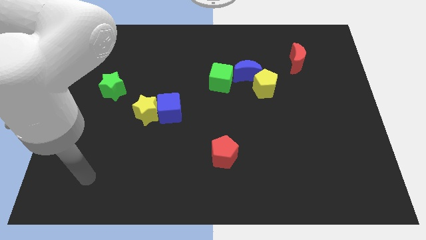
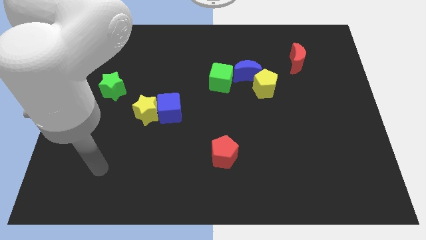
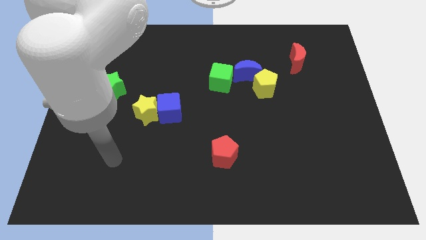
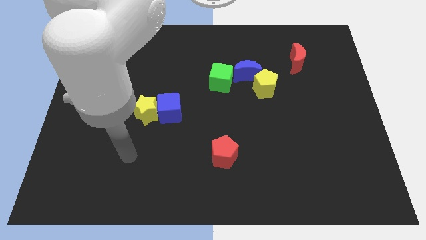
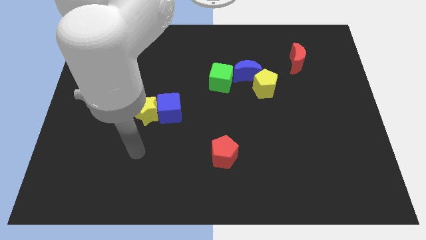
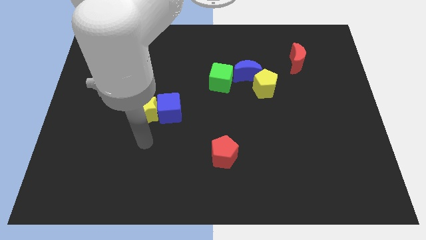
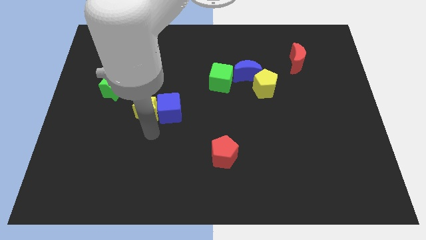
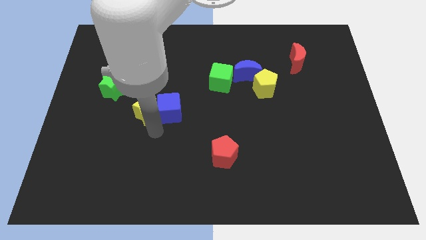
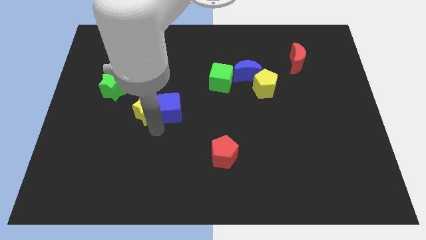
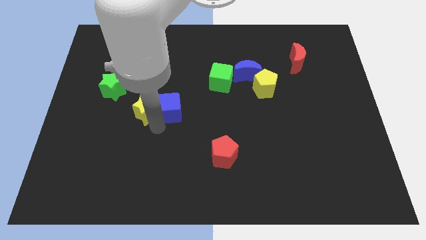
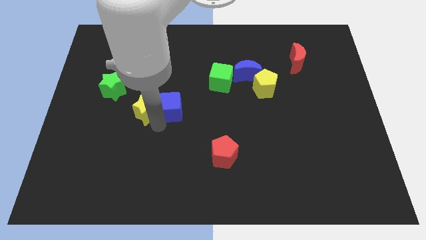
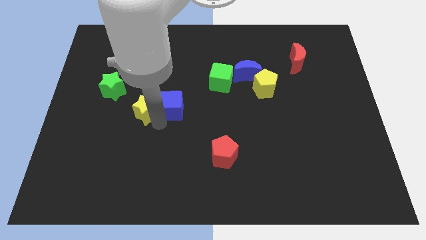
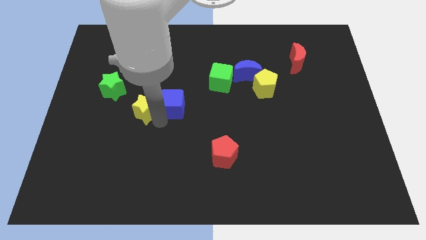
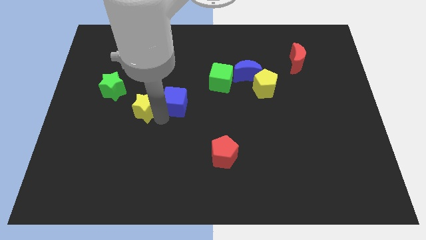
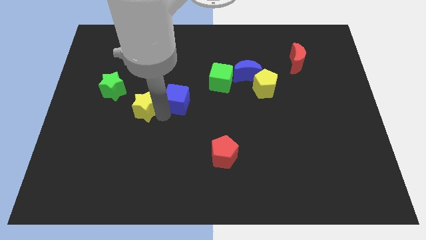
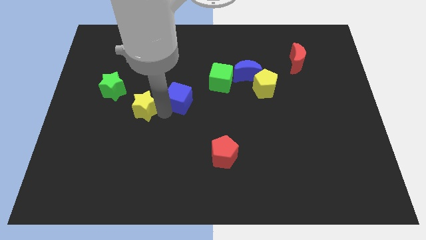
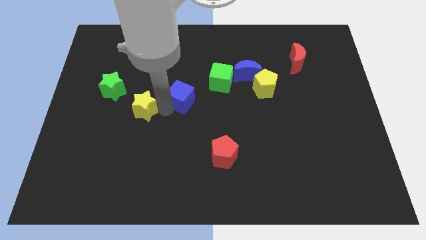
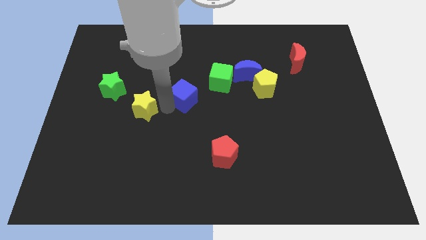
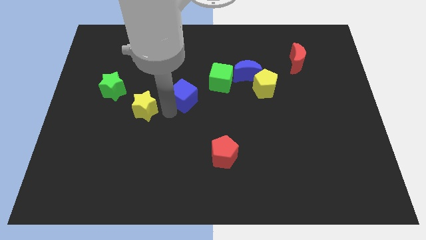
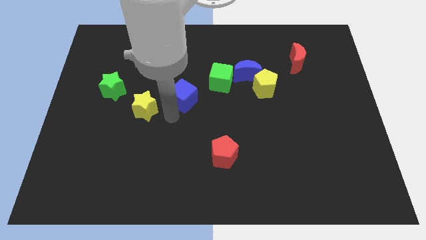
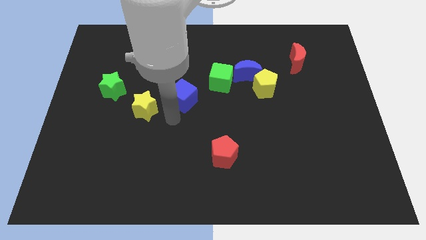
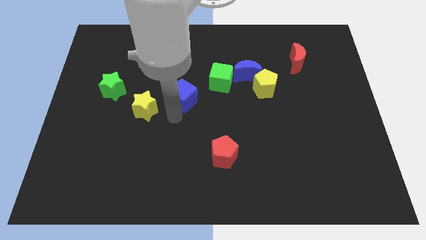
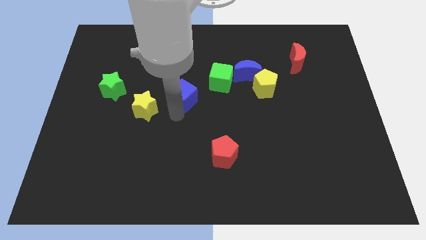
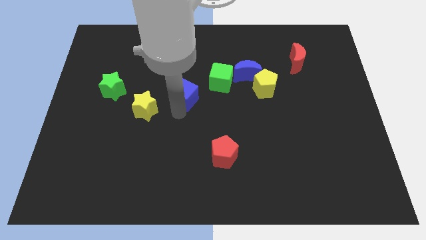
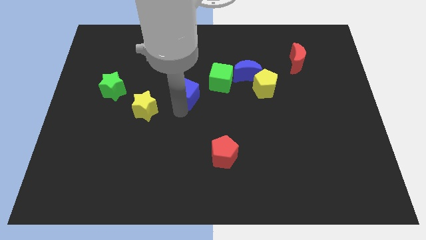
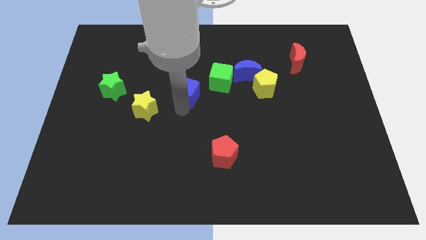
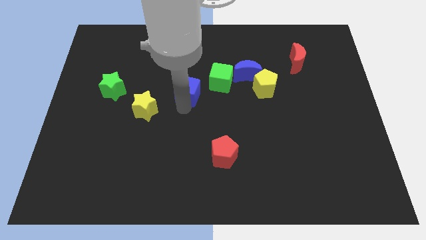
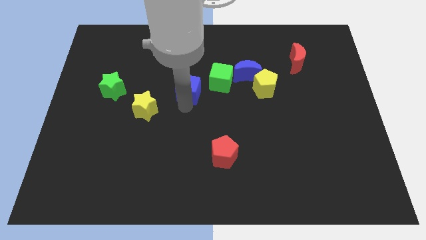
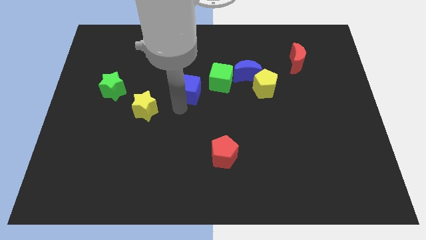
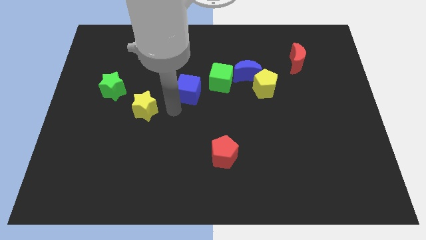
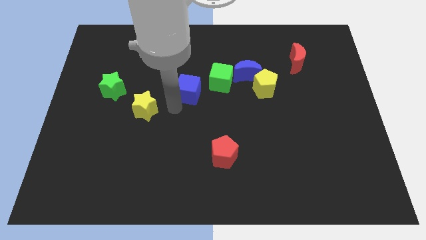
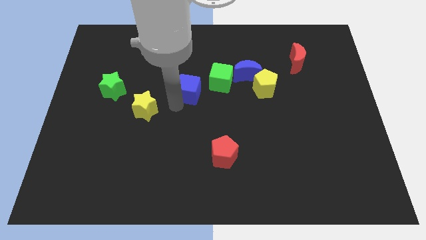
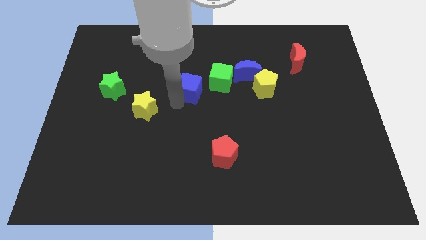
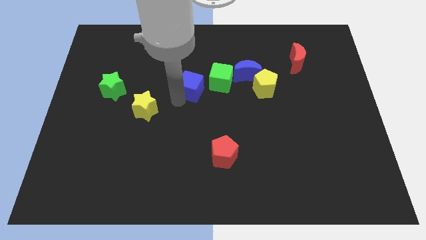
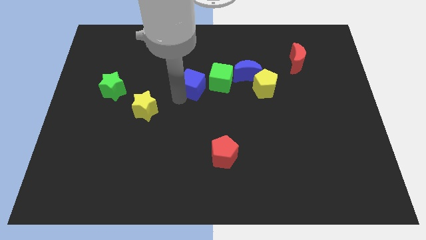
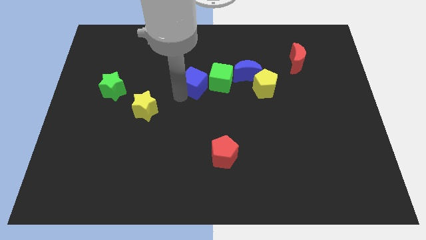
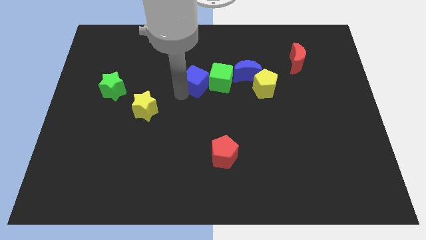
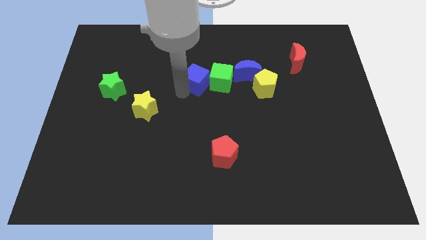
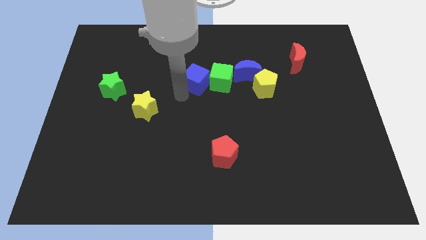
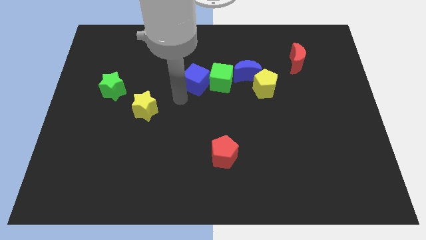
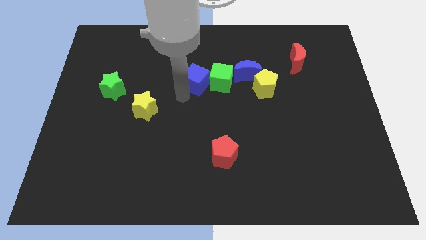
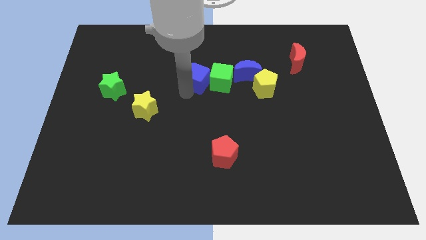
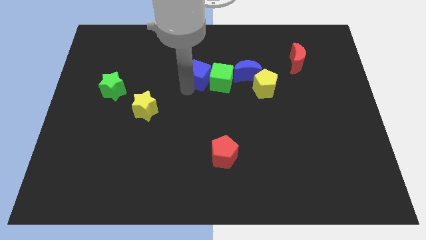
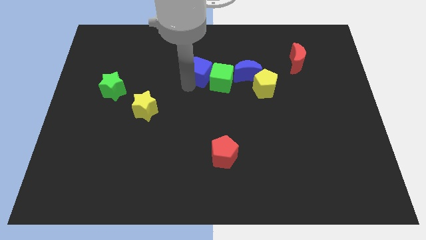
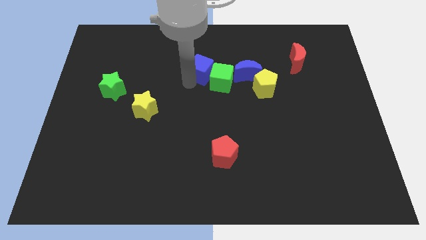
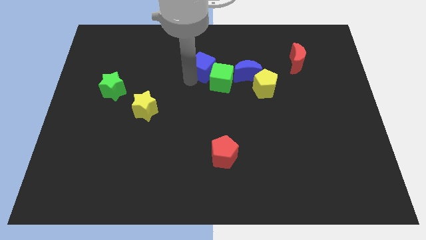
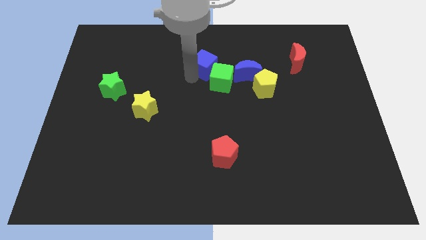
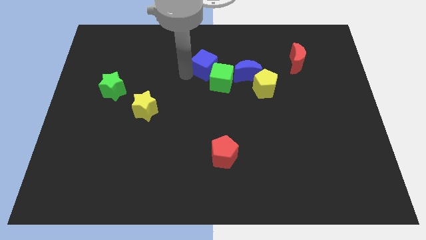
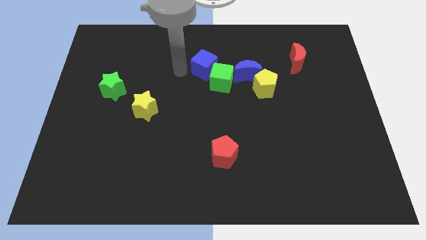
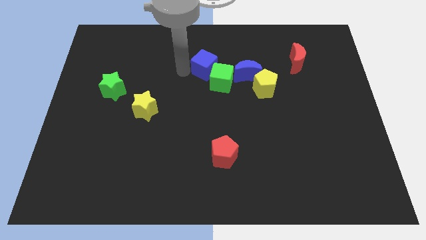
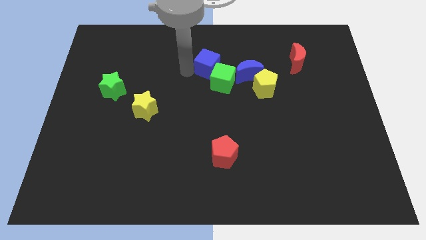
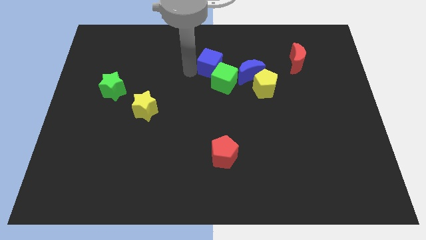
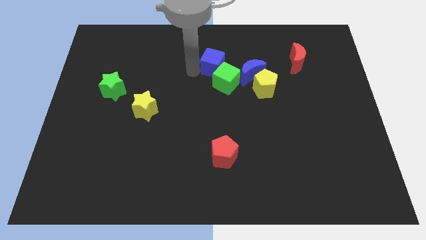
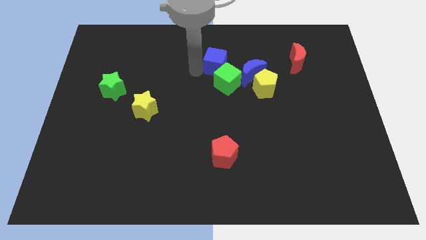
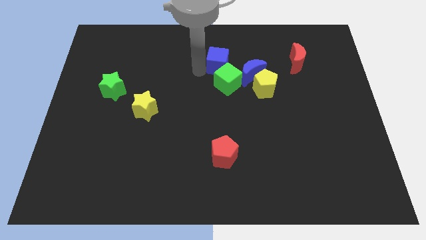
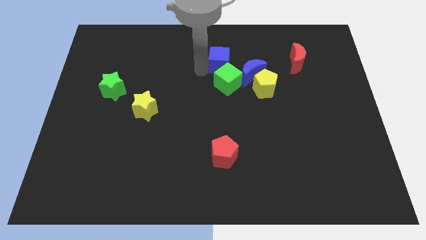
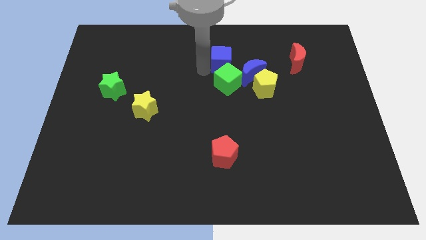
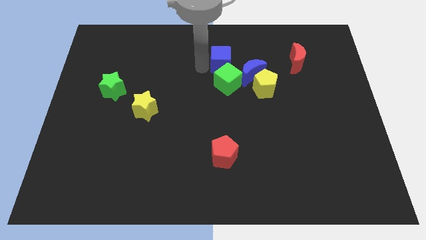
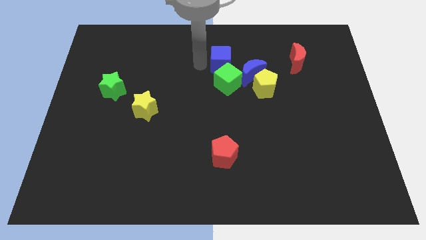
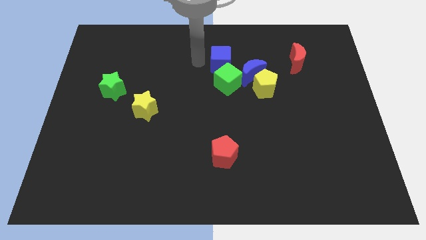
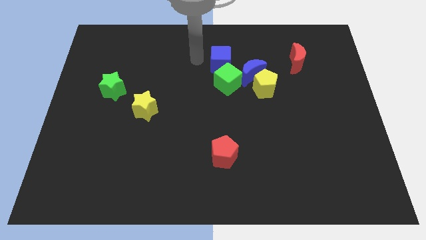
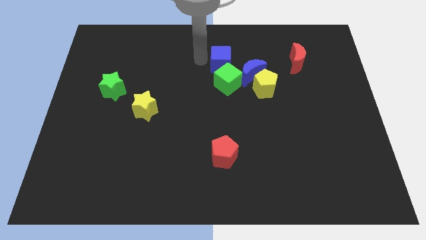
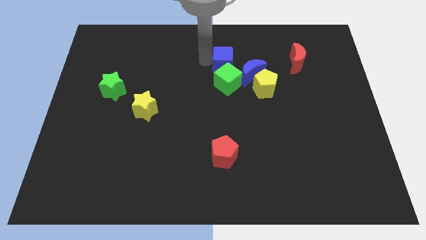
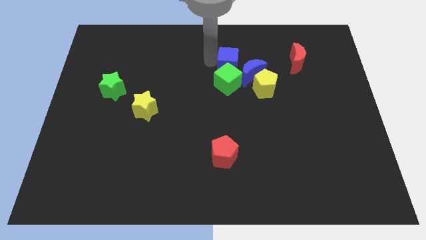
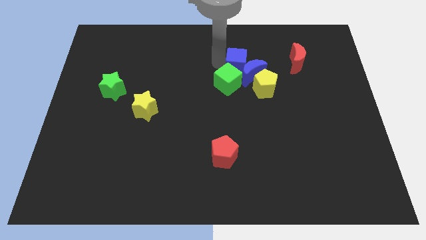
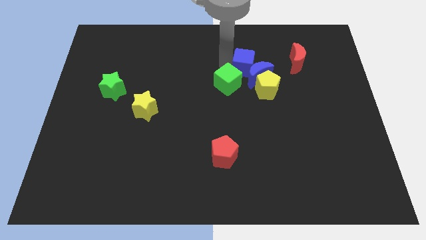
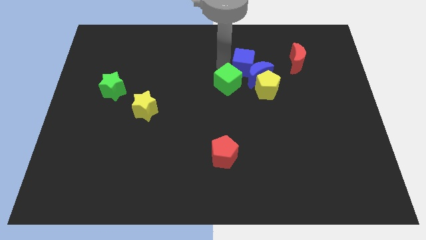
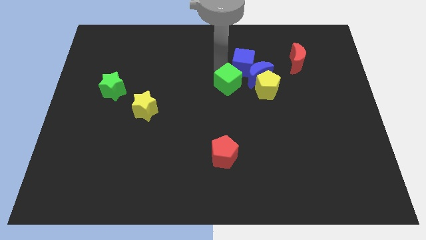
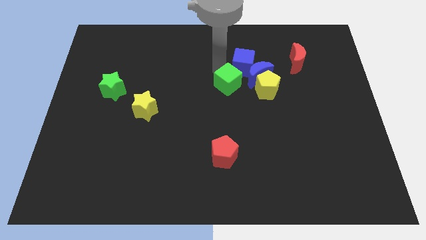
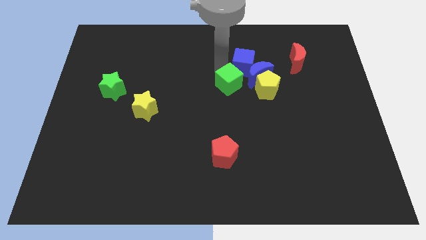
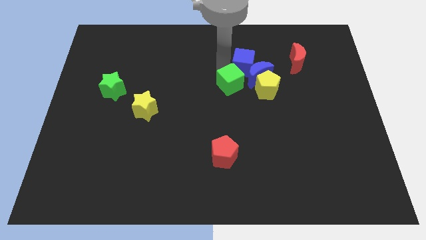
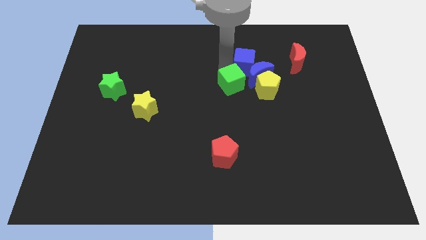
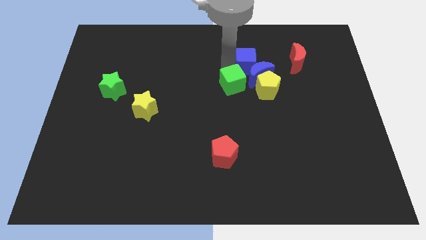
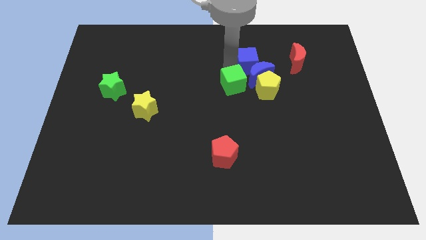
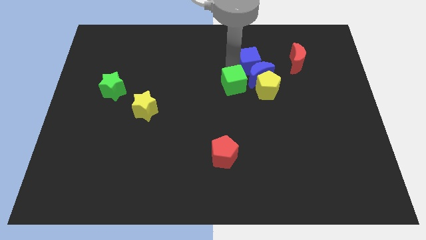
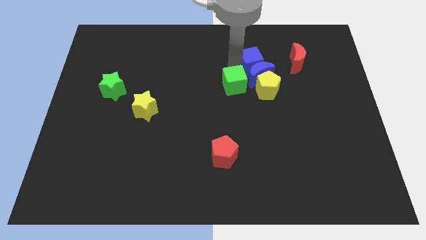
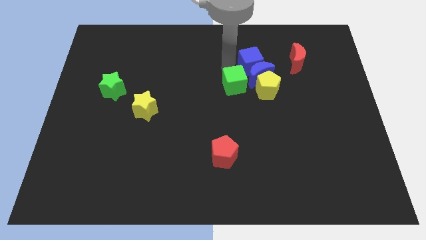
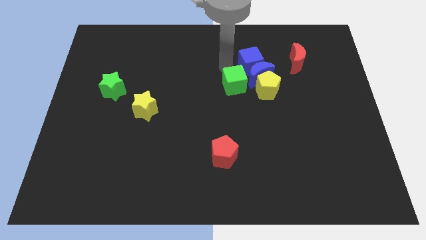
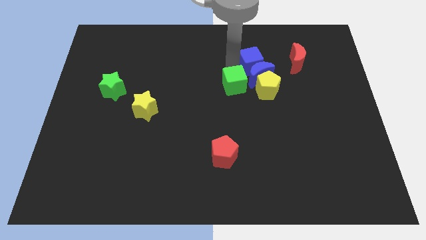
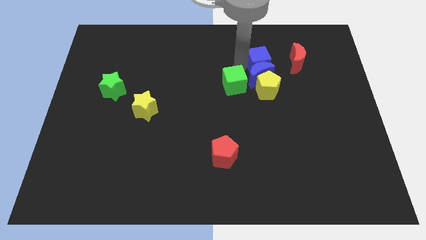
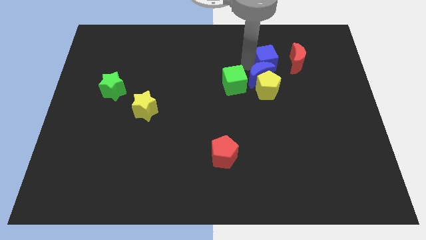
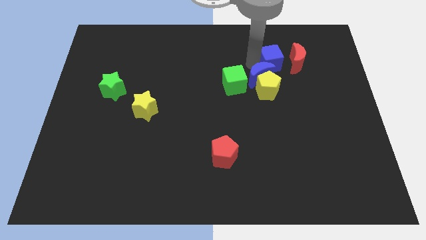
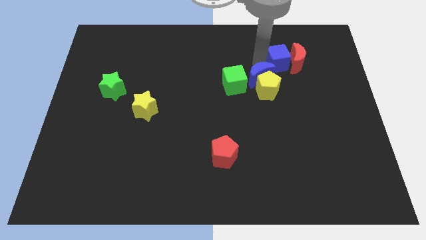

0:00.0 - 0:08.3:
push the blue cube next to the red moon
